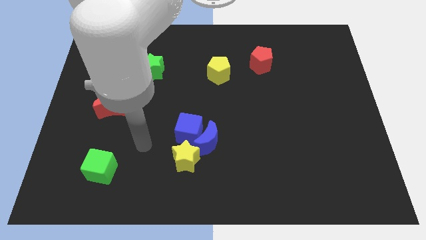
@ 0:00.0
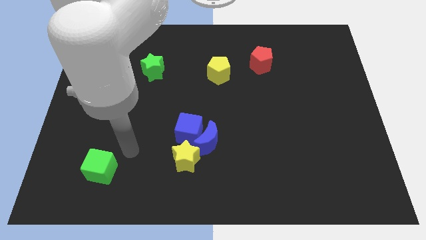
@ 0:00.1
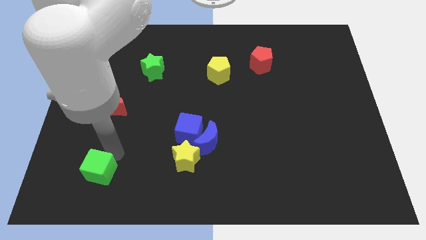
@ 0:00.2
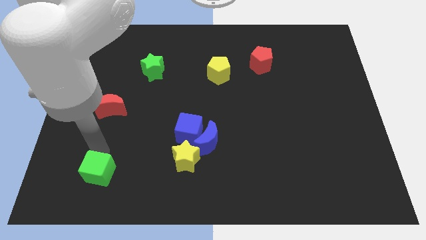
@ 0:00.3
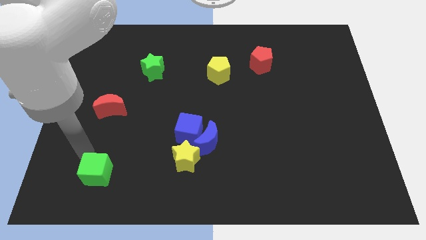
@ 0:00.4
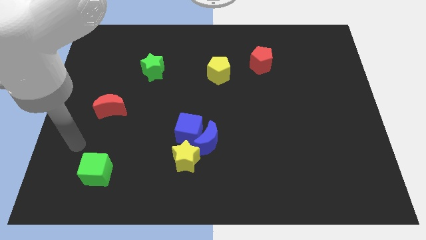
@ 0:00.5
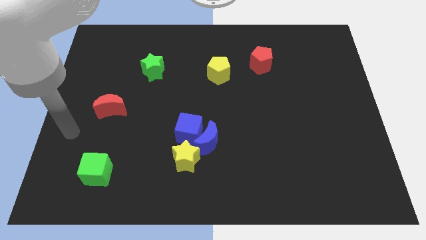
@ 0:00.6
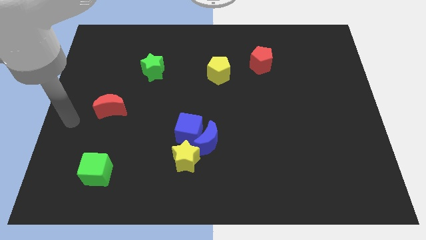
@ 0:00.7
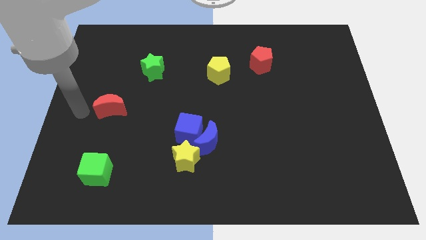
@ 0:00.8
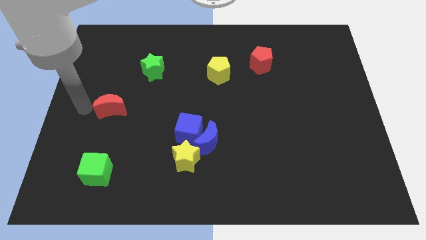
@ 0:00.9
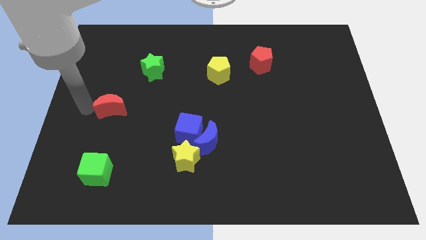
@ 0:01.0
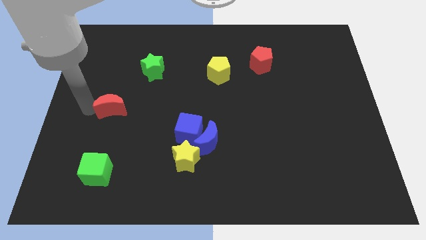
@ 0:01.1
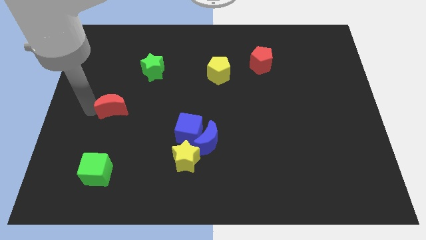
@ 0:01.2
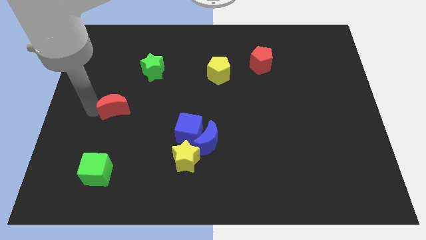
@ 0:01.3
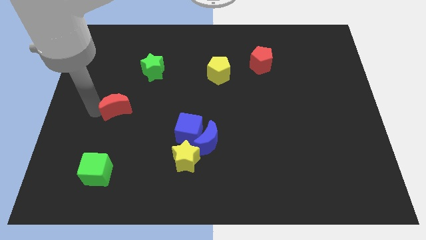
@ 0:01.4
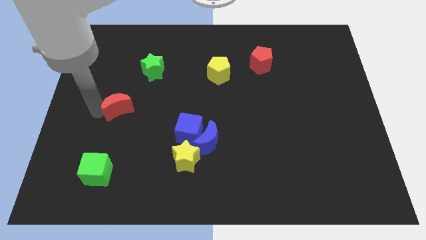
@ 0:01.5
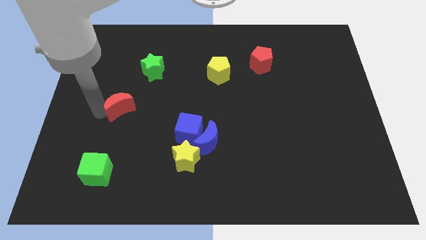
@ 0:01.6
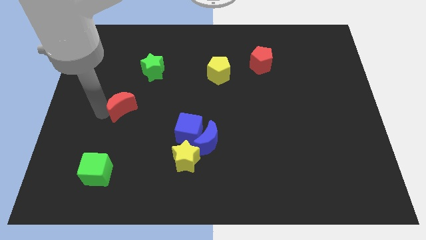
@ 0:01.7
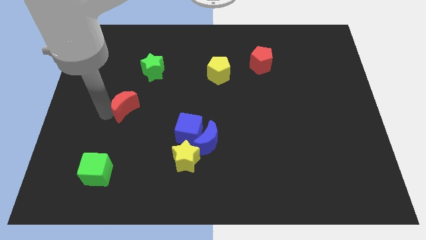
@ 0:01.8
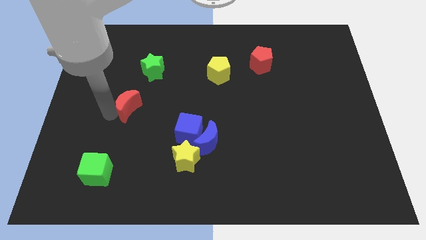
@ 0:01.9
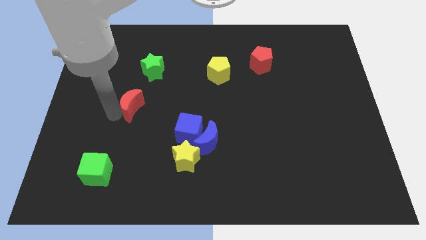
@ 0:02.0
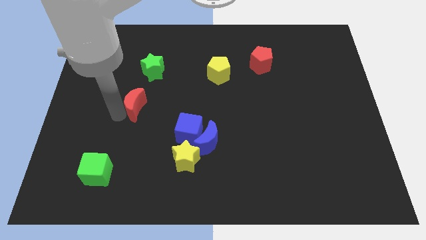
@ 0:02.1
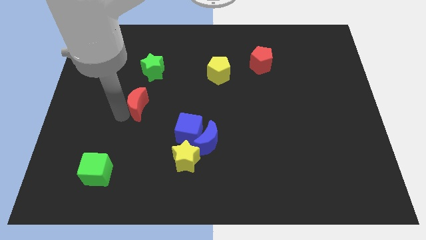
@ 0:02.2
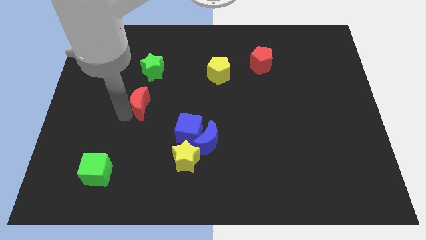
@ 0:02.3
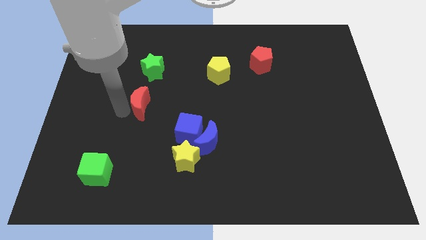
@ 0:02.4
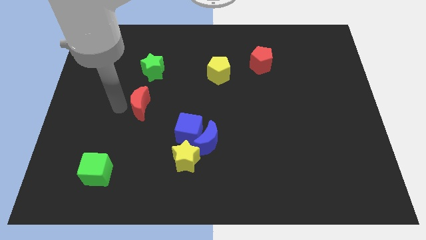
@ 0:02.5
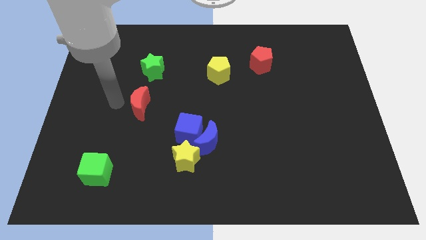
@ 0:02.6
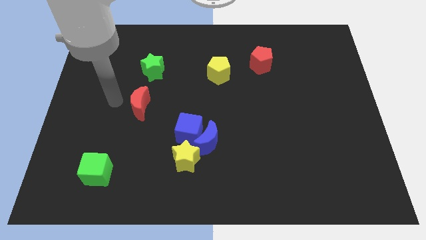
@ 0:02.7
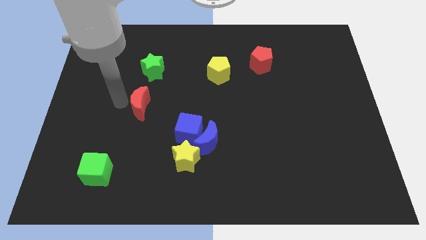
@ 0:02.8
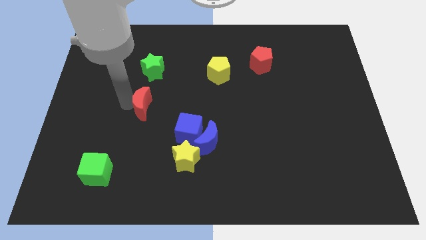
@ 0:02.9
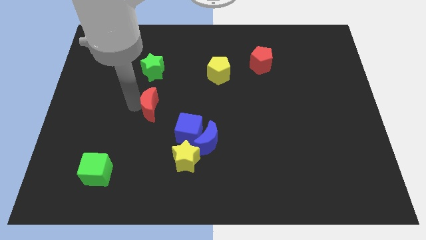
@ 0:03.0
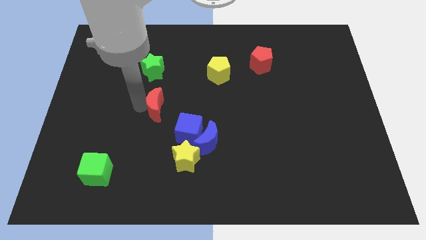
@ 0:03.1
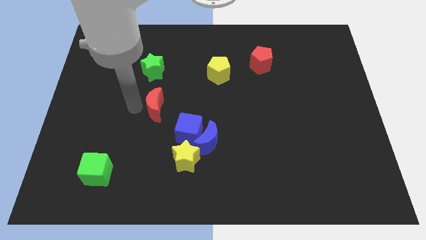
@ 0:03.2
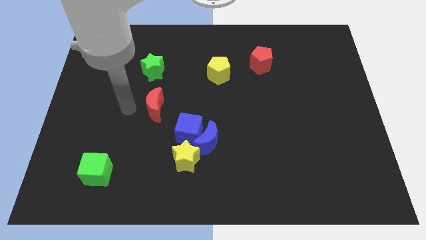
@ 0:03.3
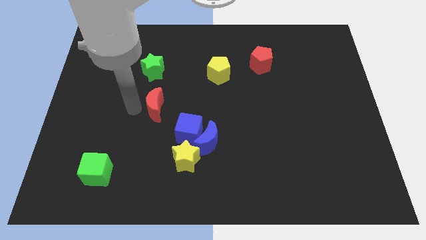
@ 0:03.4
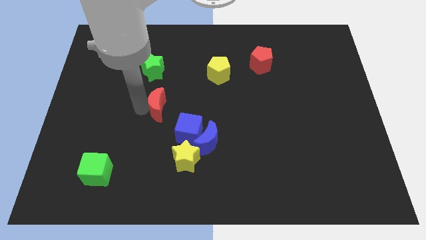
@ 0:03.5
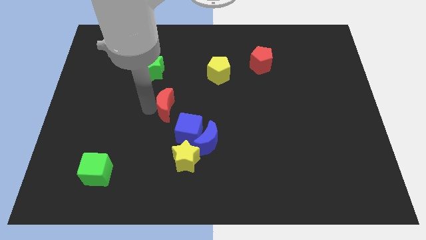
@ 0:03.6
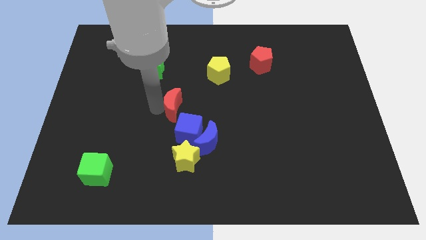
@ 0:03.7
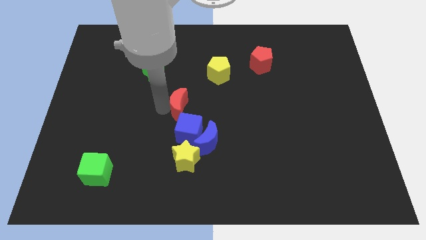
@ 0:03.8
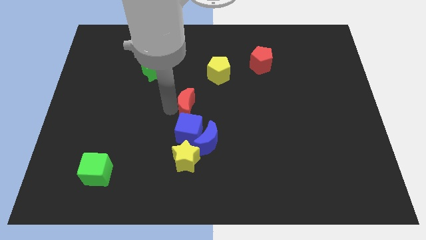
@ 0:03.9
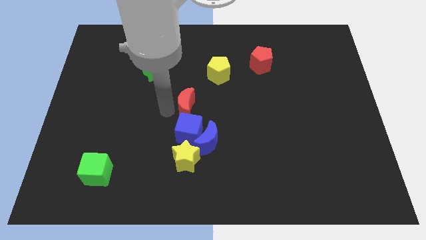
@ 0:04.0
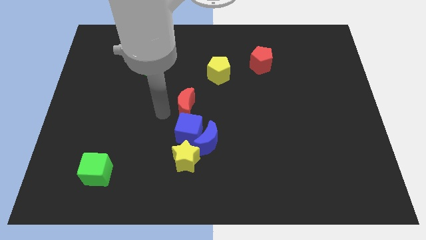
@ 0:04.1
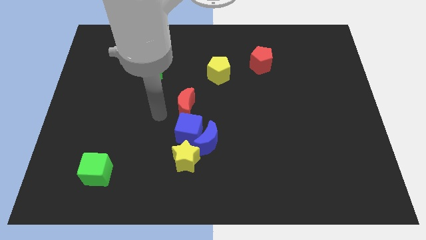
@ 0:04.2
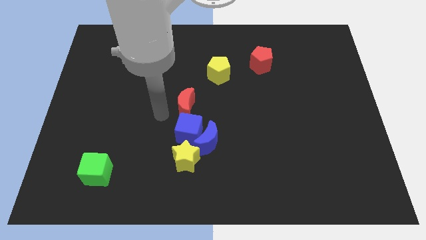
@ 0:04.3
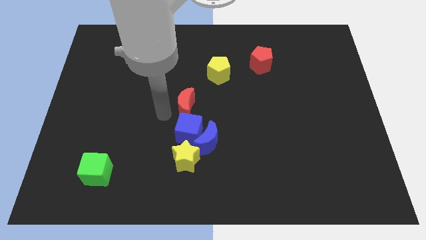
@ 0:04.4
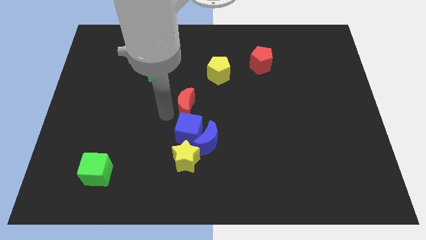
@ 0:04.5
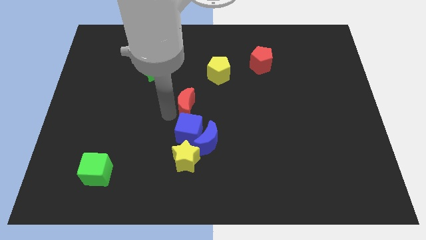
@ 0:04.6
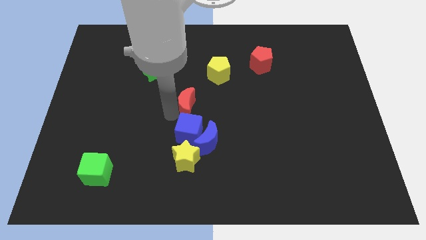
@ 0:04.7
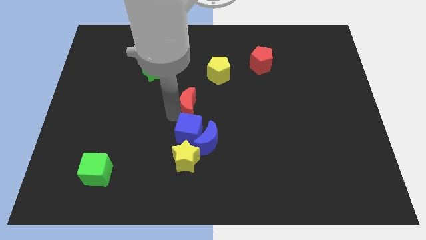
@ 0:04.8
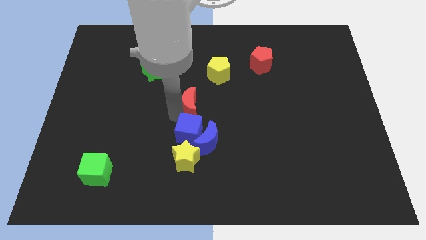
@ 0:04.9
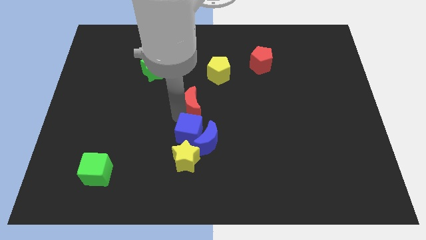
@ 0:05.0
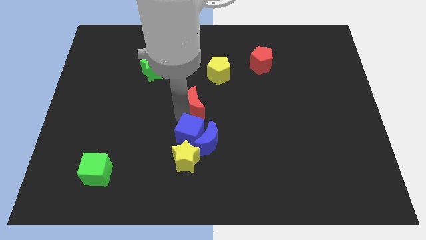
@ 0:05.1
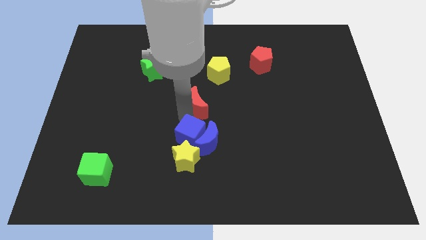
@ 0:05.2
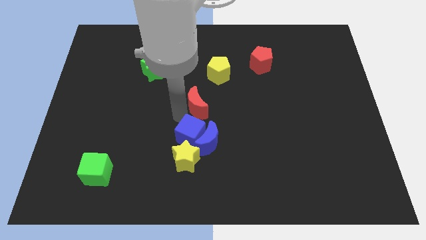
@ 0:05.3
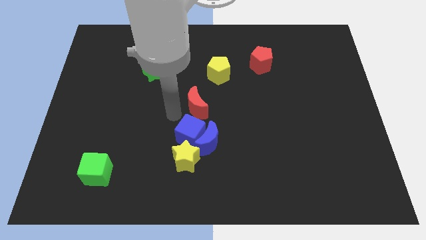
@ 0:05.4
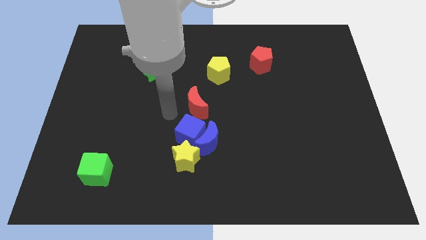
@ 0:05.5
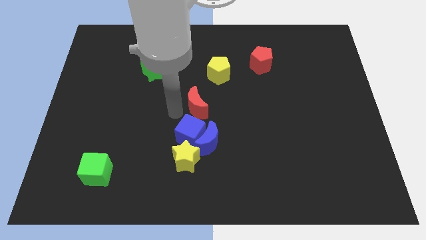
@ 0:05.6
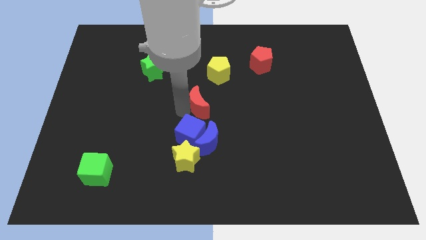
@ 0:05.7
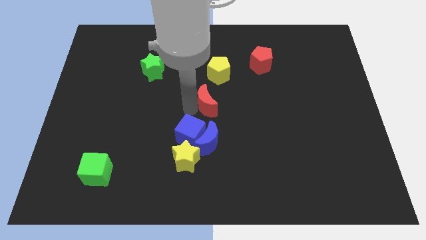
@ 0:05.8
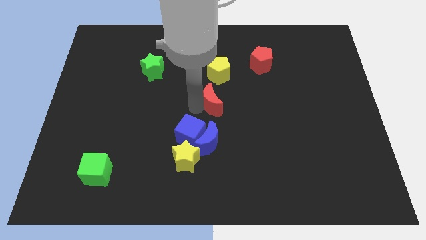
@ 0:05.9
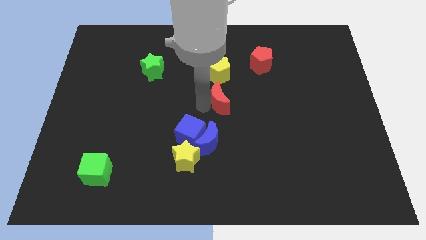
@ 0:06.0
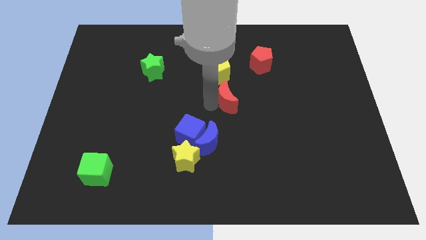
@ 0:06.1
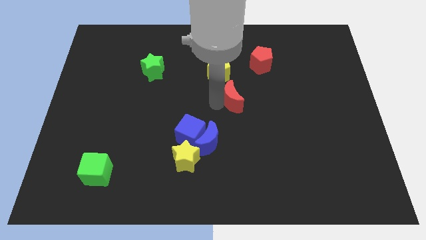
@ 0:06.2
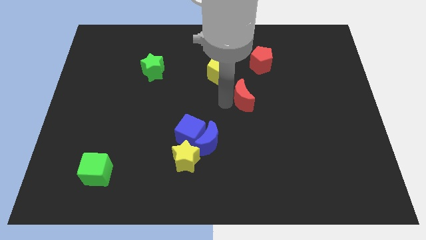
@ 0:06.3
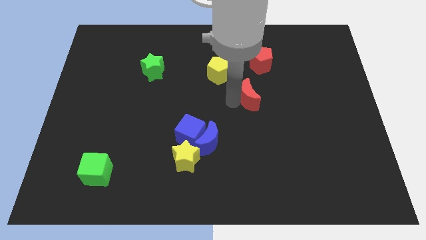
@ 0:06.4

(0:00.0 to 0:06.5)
slide the red moon below the red pentagon

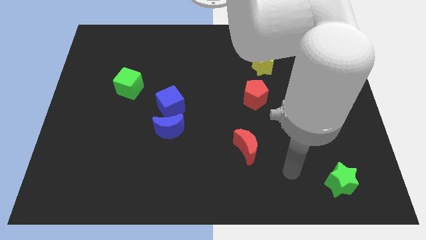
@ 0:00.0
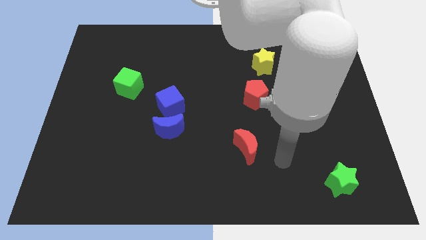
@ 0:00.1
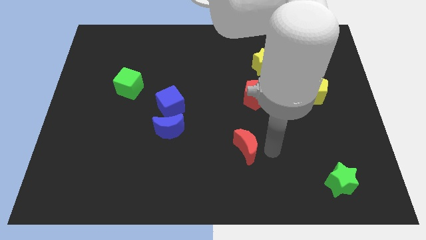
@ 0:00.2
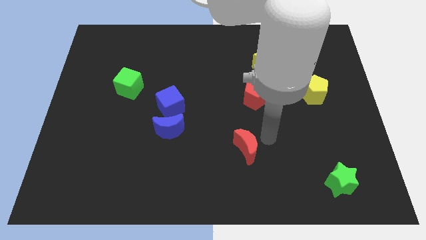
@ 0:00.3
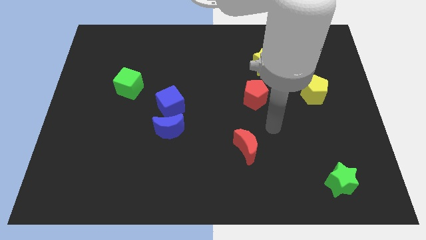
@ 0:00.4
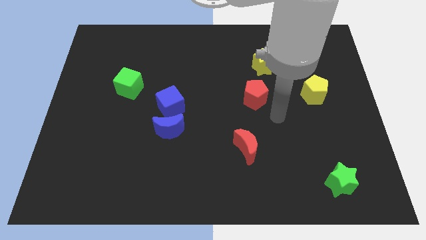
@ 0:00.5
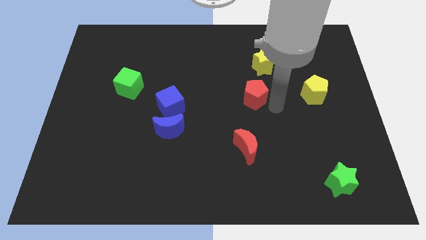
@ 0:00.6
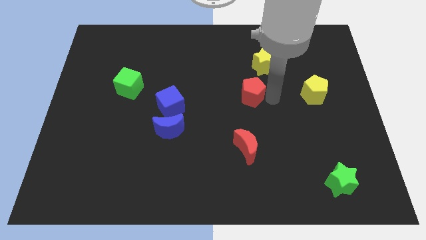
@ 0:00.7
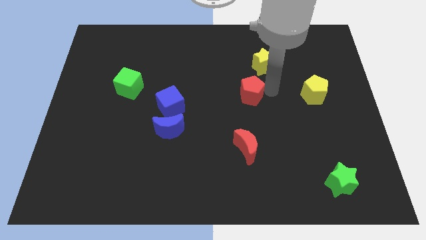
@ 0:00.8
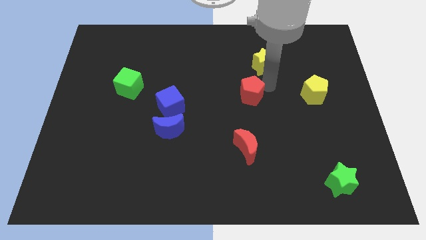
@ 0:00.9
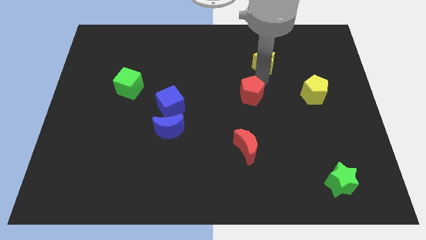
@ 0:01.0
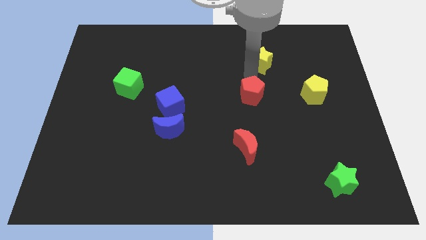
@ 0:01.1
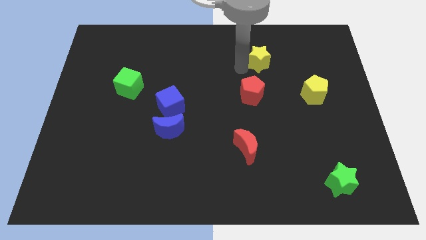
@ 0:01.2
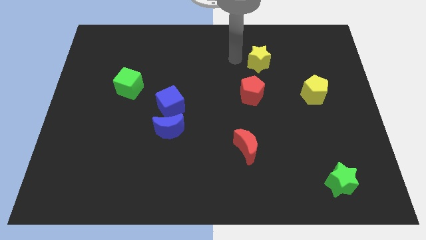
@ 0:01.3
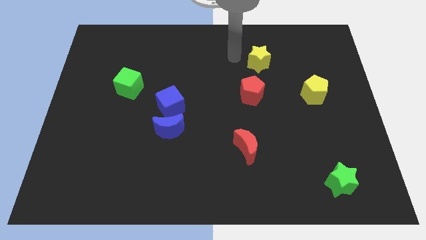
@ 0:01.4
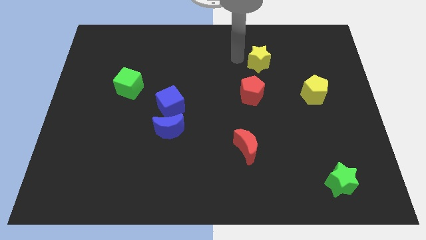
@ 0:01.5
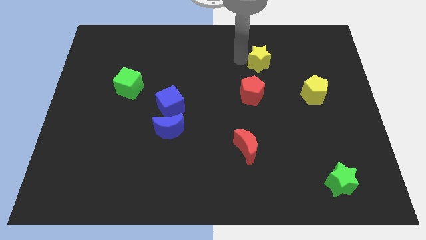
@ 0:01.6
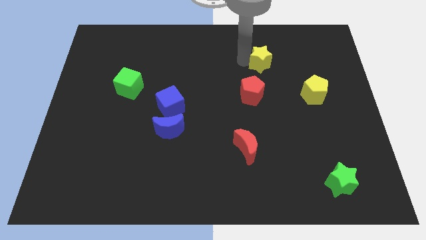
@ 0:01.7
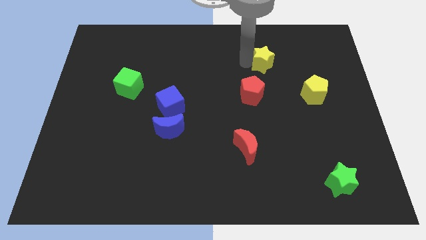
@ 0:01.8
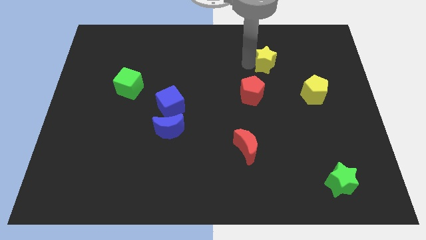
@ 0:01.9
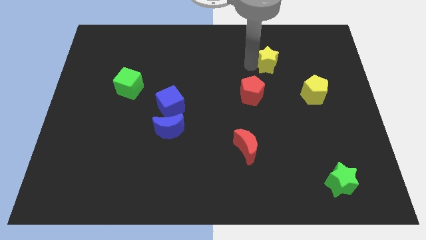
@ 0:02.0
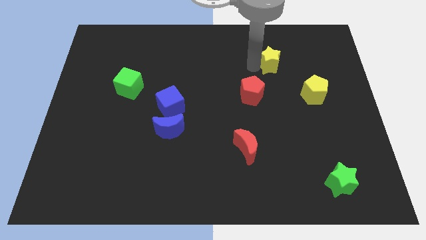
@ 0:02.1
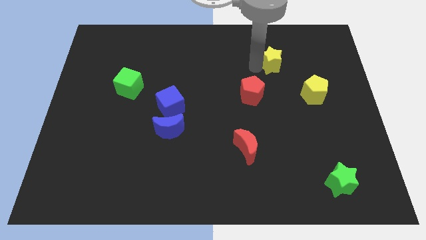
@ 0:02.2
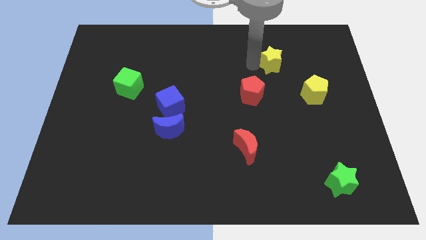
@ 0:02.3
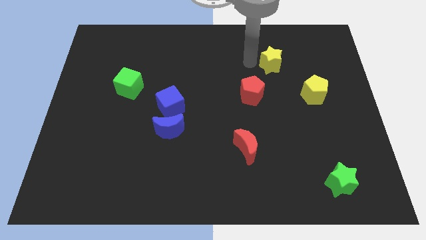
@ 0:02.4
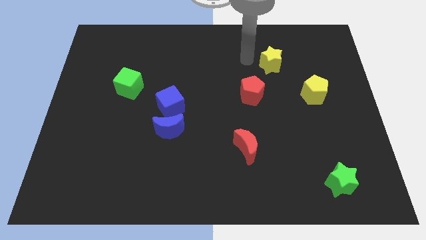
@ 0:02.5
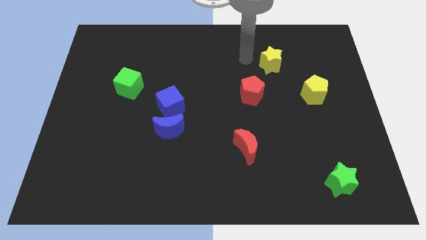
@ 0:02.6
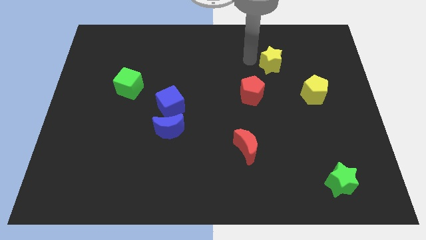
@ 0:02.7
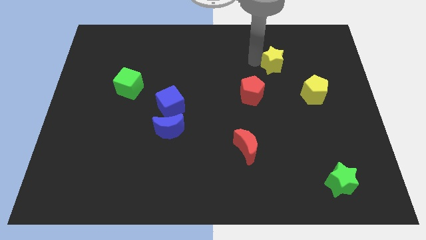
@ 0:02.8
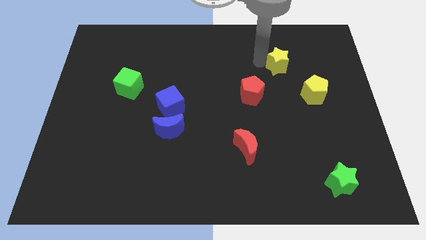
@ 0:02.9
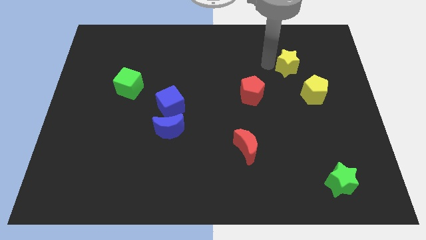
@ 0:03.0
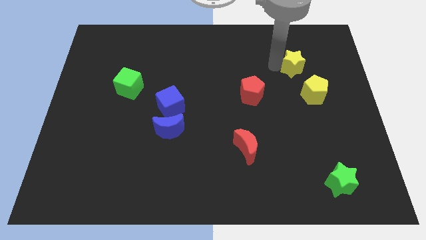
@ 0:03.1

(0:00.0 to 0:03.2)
slide the yellow star to the top of the yellow pentagon
